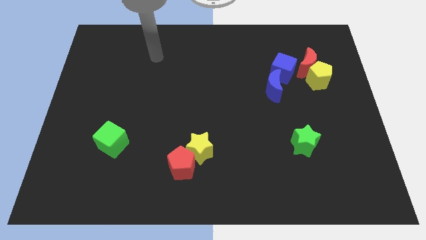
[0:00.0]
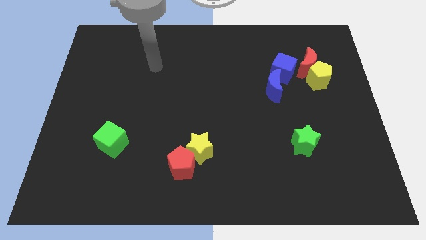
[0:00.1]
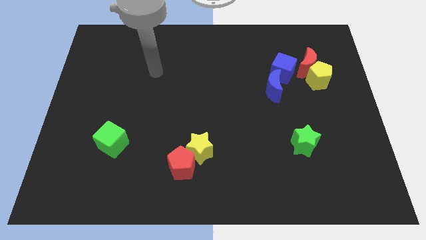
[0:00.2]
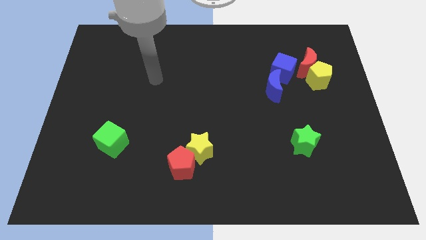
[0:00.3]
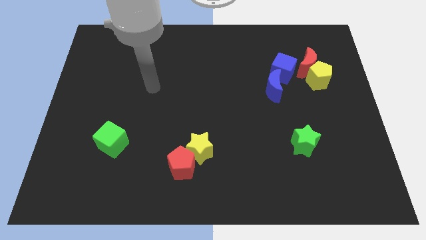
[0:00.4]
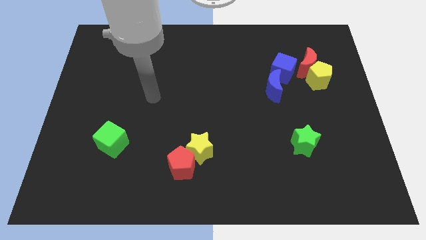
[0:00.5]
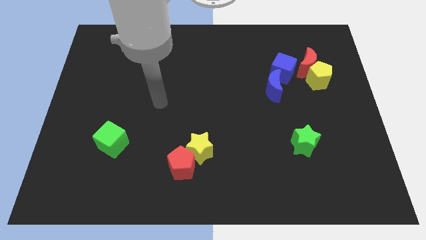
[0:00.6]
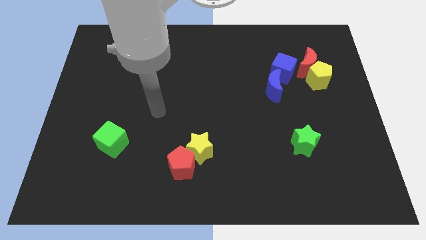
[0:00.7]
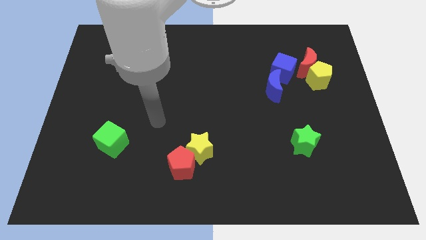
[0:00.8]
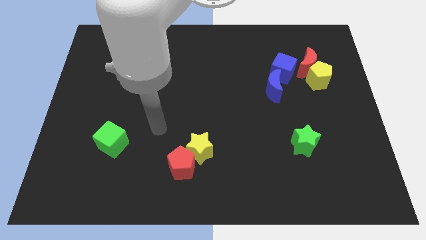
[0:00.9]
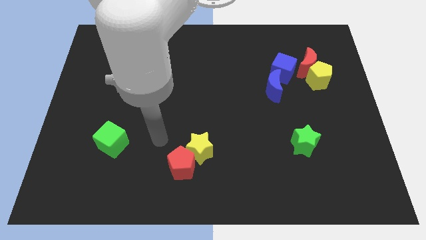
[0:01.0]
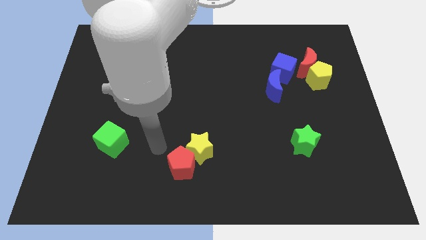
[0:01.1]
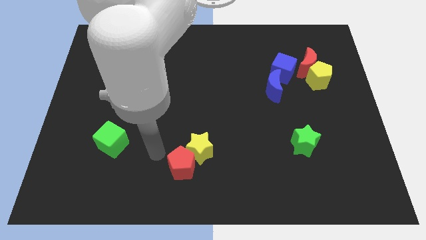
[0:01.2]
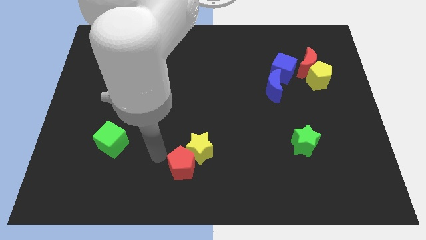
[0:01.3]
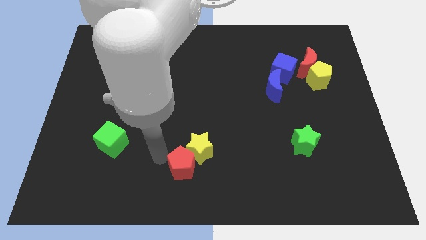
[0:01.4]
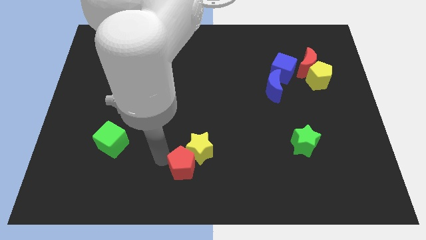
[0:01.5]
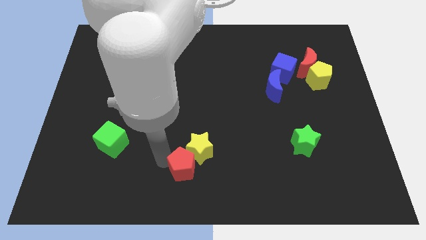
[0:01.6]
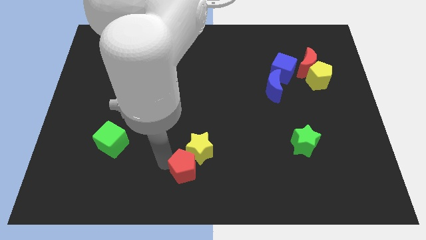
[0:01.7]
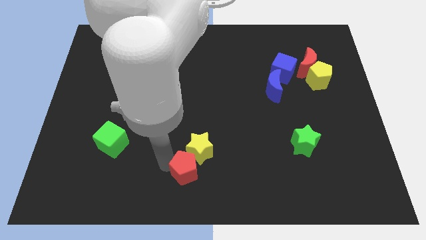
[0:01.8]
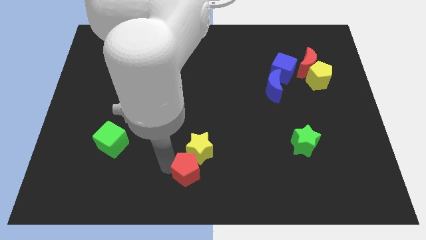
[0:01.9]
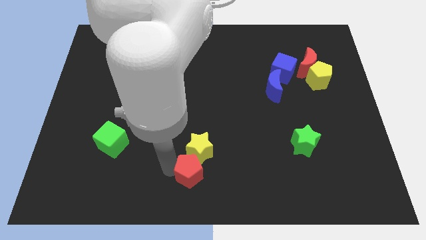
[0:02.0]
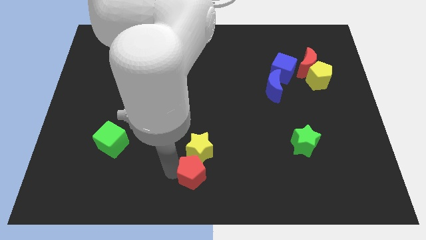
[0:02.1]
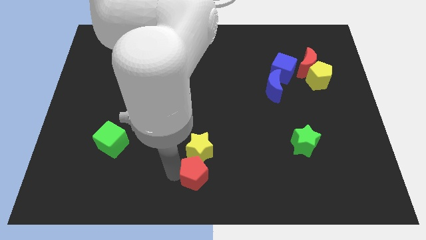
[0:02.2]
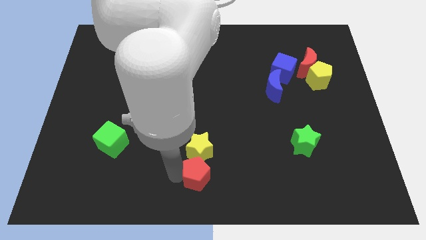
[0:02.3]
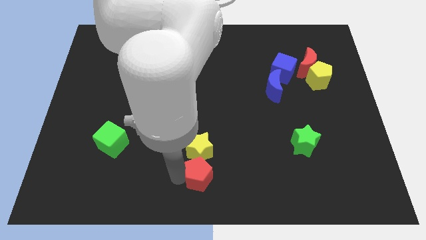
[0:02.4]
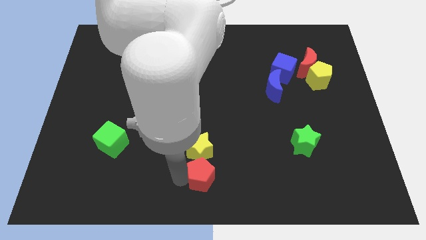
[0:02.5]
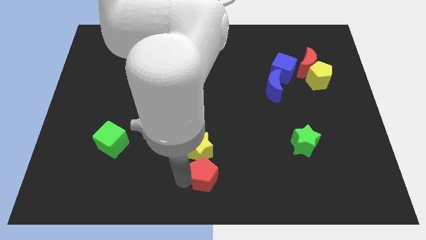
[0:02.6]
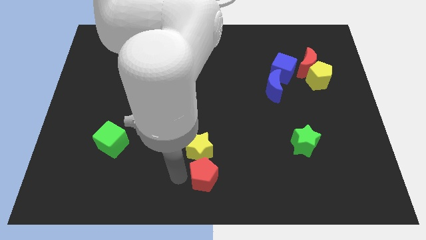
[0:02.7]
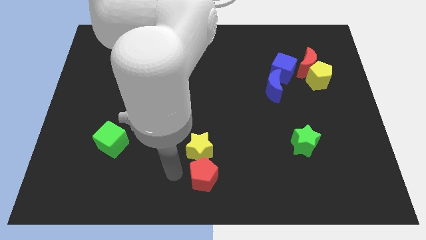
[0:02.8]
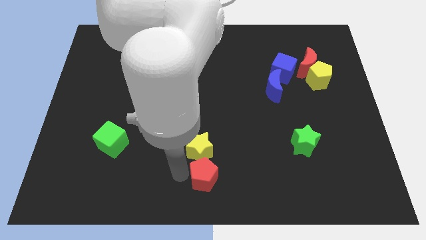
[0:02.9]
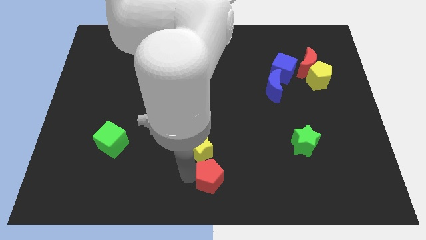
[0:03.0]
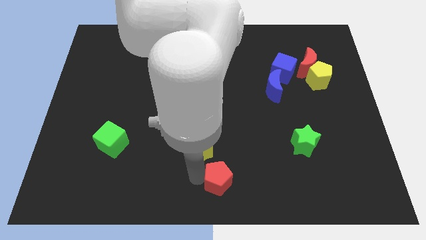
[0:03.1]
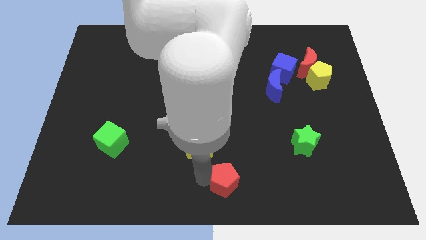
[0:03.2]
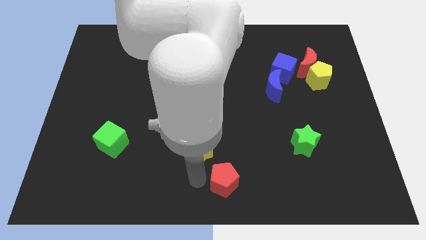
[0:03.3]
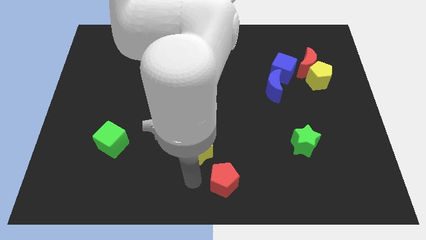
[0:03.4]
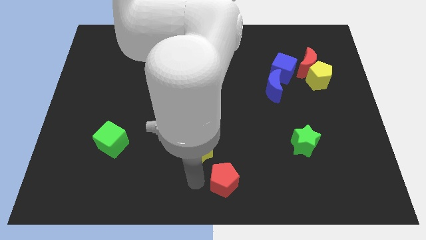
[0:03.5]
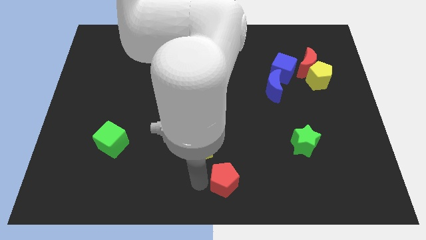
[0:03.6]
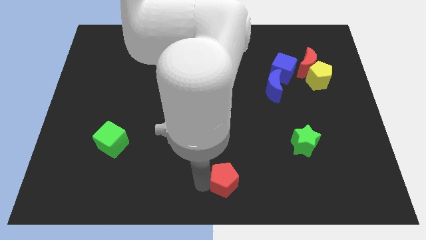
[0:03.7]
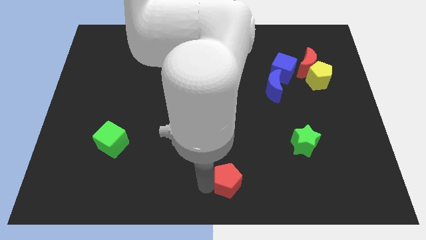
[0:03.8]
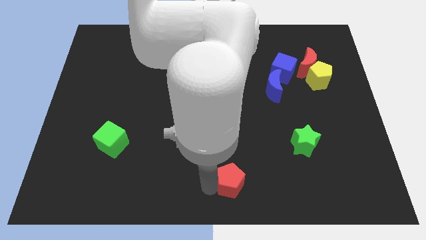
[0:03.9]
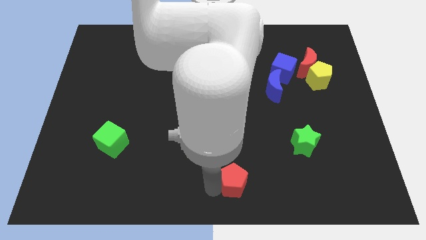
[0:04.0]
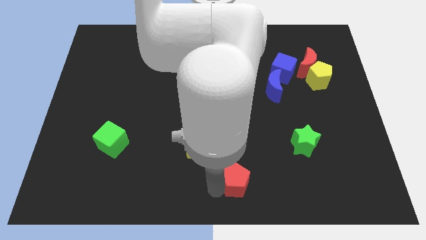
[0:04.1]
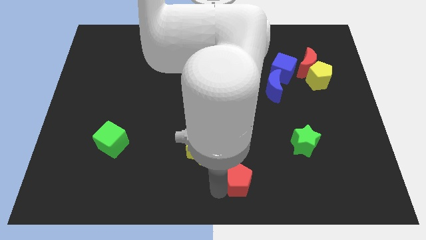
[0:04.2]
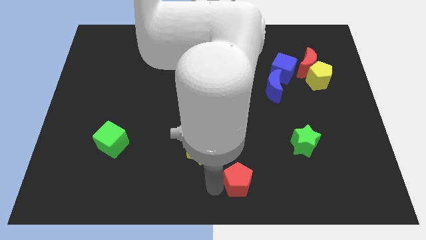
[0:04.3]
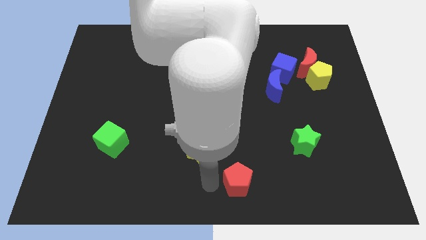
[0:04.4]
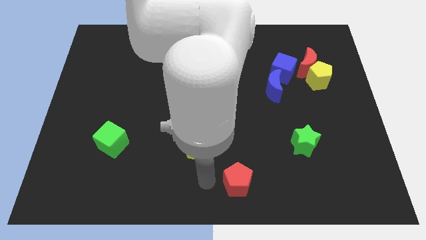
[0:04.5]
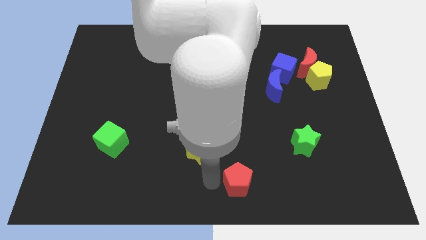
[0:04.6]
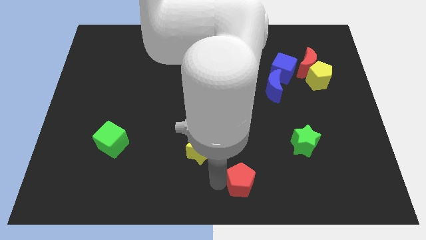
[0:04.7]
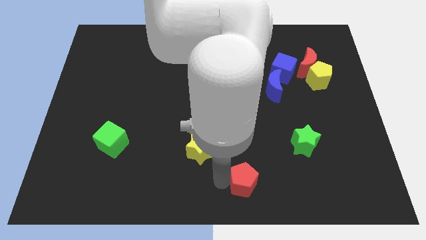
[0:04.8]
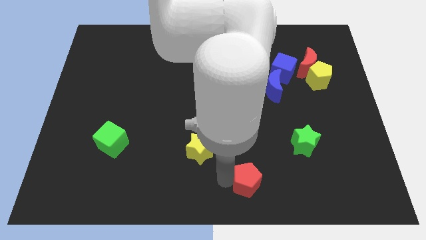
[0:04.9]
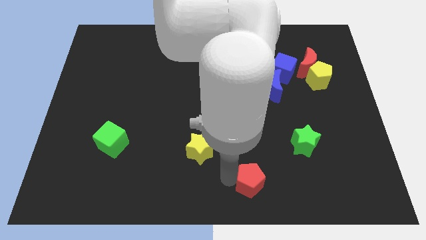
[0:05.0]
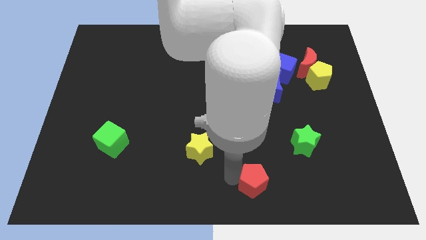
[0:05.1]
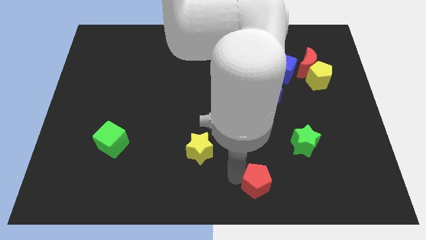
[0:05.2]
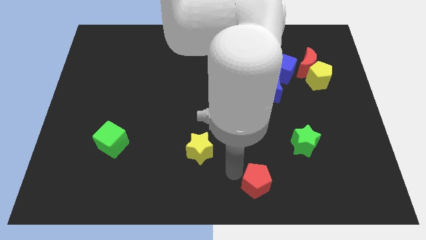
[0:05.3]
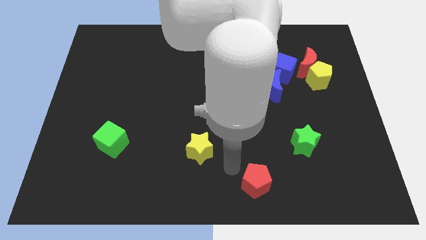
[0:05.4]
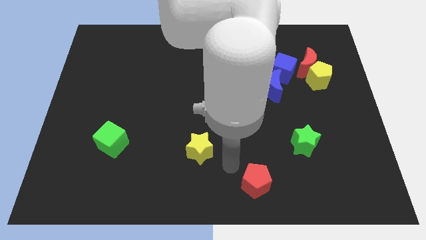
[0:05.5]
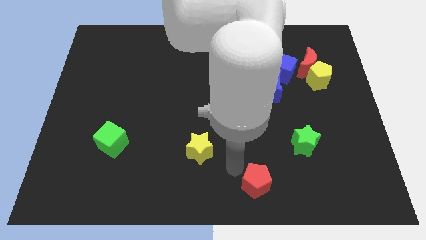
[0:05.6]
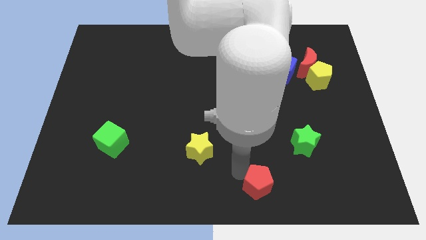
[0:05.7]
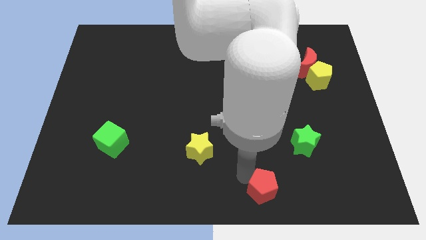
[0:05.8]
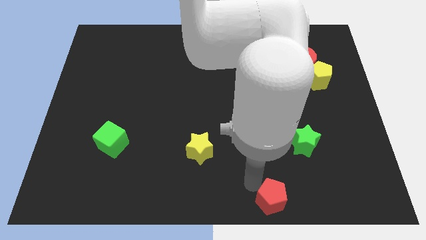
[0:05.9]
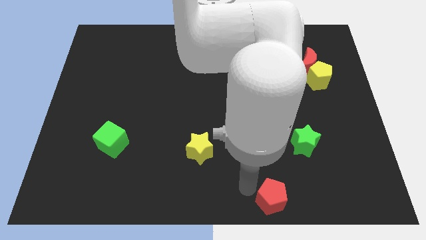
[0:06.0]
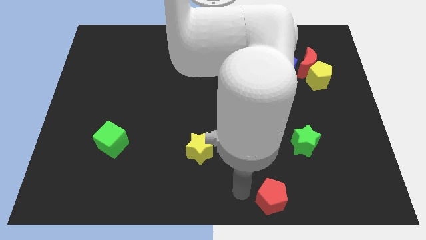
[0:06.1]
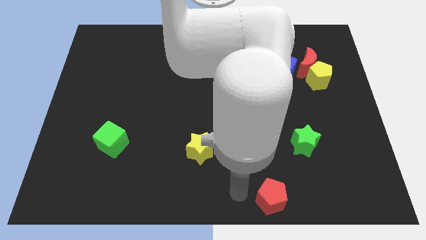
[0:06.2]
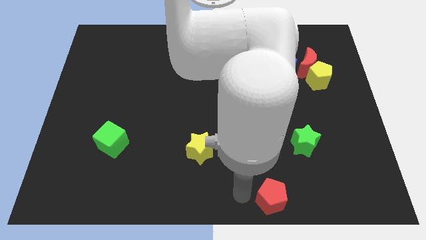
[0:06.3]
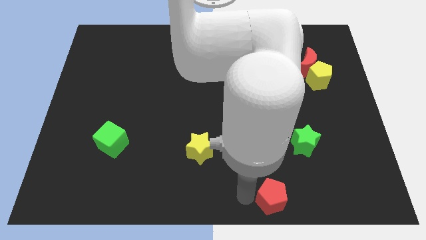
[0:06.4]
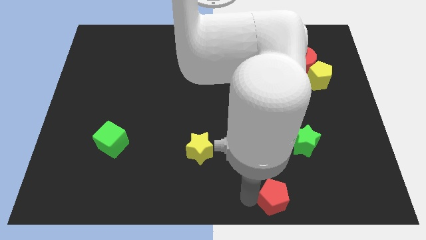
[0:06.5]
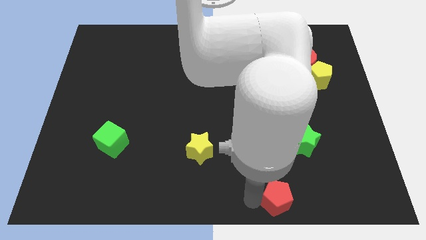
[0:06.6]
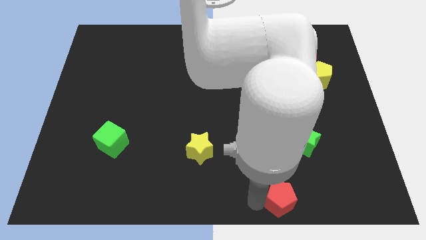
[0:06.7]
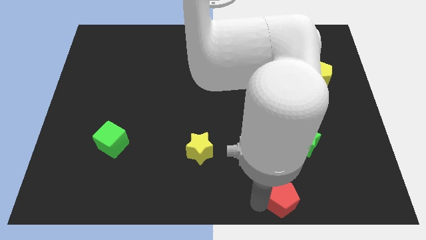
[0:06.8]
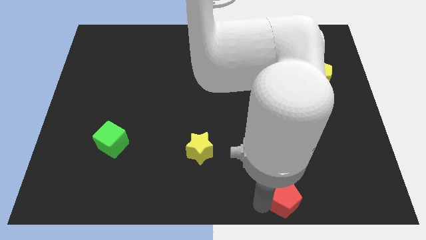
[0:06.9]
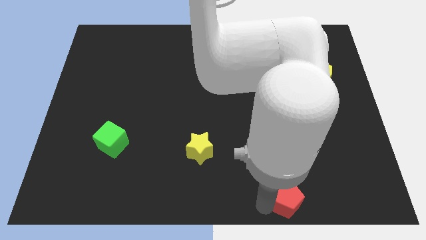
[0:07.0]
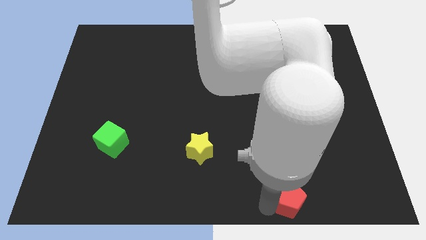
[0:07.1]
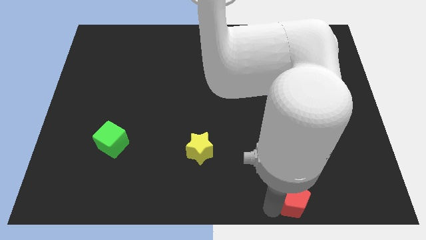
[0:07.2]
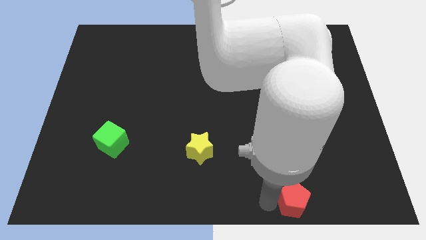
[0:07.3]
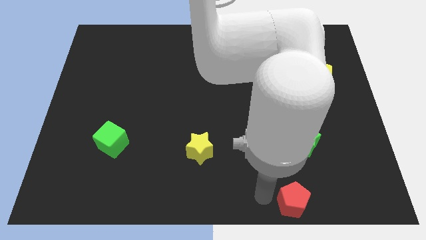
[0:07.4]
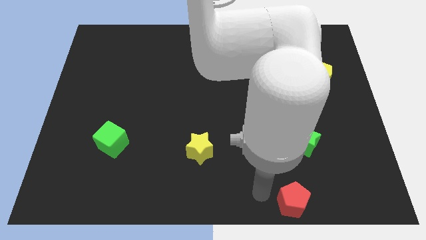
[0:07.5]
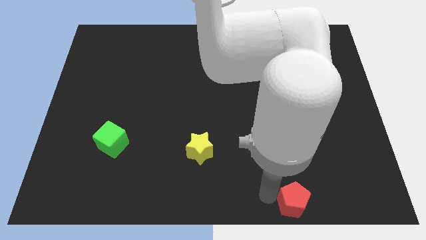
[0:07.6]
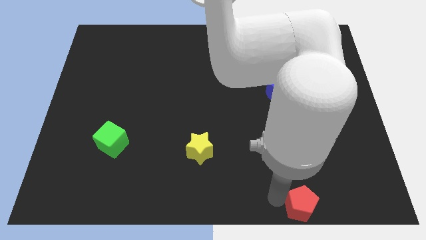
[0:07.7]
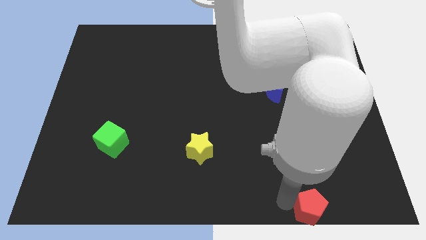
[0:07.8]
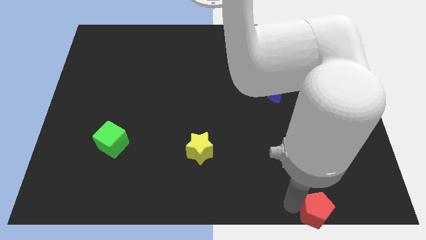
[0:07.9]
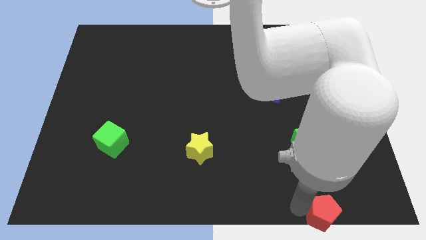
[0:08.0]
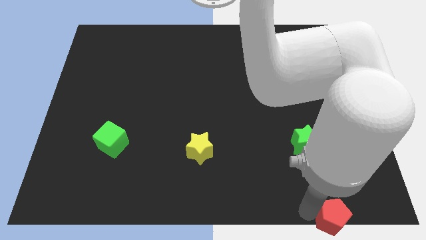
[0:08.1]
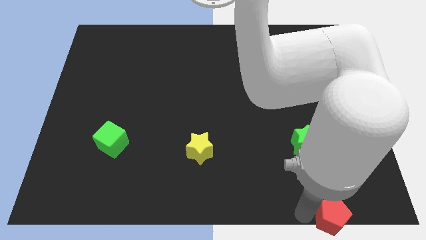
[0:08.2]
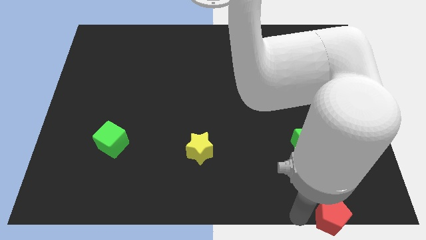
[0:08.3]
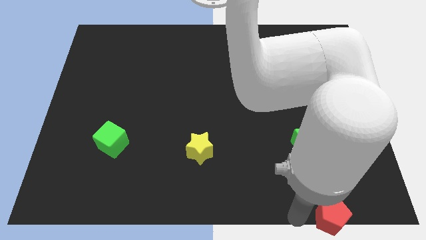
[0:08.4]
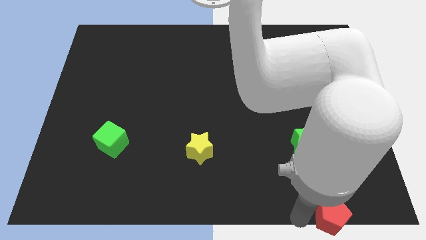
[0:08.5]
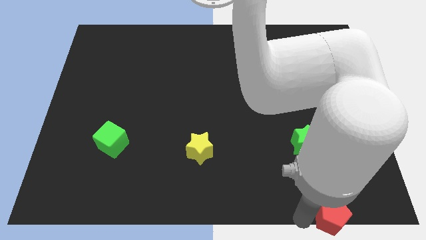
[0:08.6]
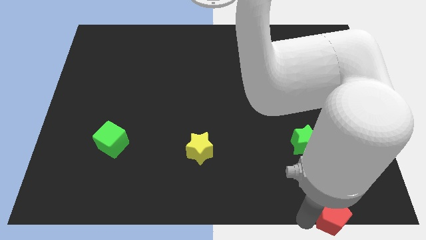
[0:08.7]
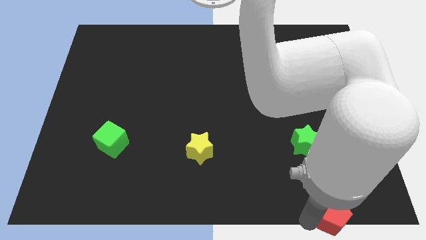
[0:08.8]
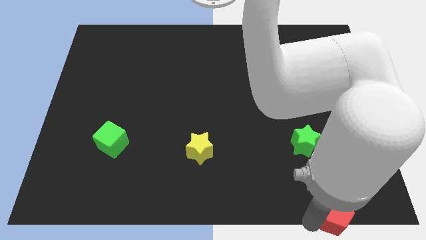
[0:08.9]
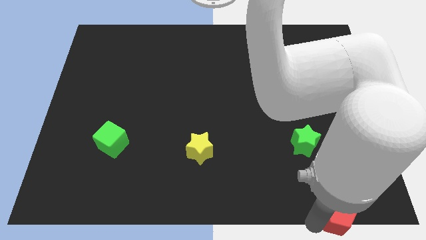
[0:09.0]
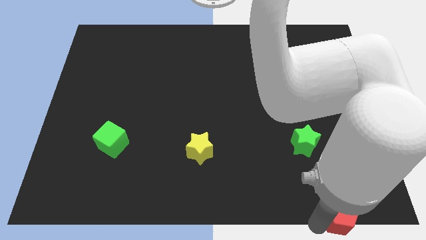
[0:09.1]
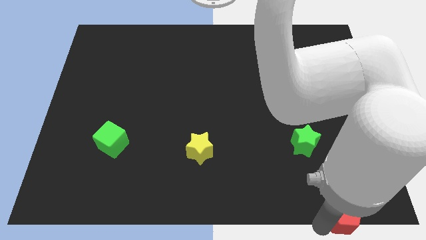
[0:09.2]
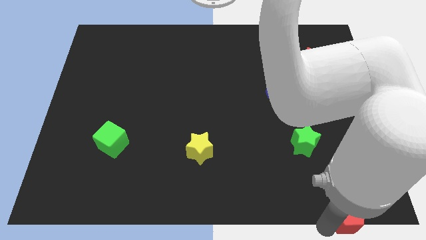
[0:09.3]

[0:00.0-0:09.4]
move the red pentagon to the bottom right
